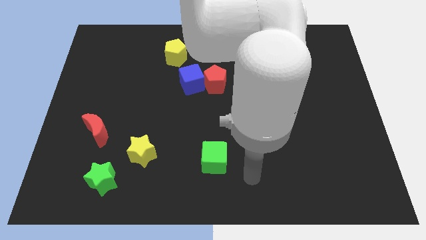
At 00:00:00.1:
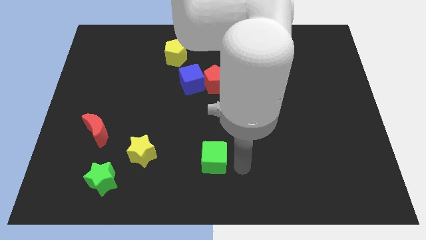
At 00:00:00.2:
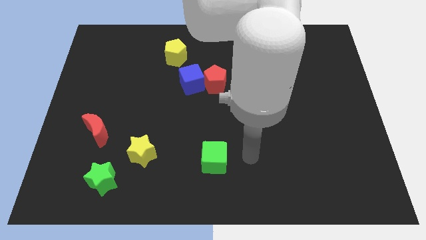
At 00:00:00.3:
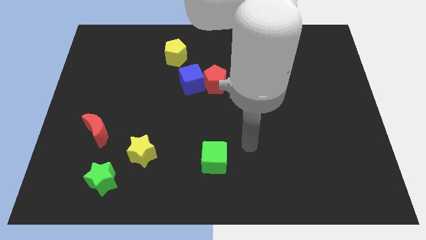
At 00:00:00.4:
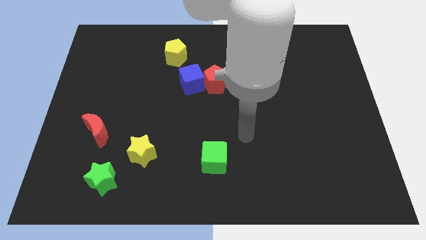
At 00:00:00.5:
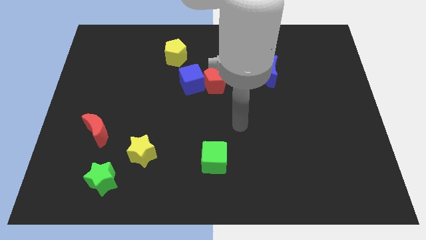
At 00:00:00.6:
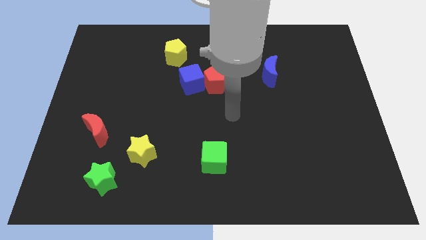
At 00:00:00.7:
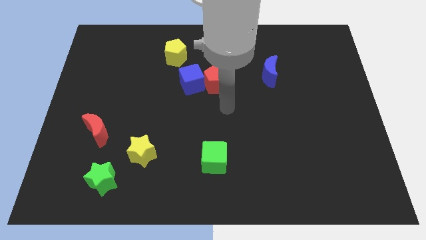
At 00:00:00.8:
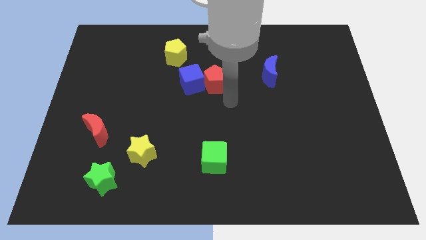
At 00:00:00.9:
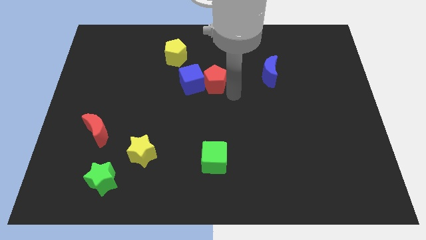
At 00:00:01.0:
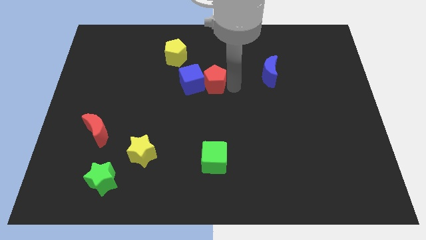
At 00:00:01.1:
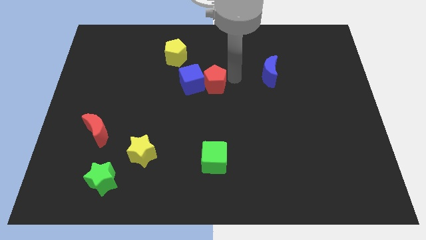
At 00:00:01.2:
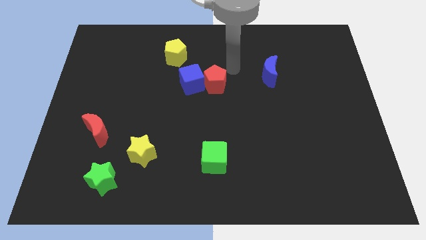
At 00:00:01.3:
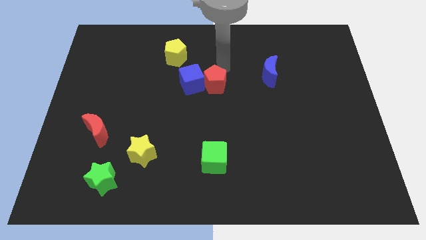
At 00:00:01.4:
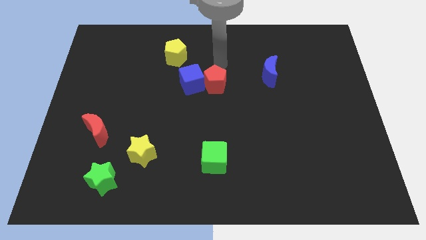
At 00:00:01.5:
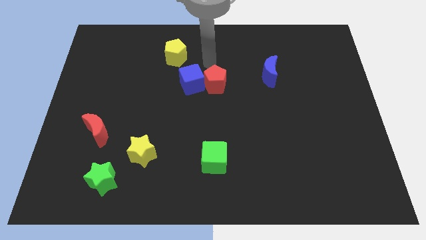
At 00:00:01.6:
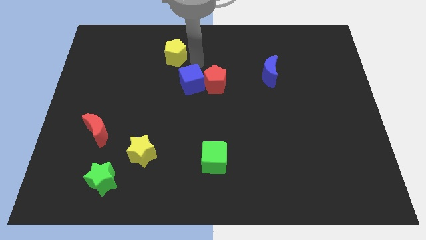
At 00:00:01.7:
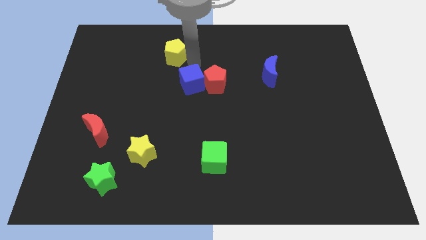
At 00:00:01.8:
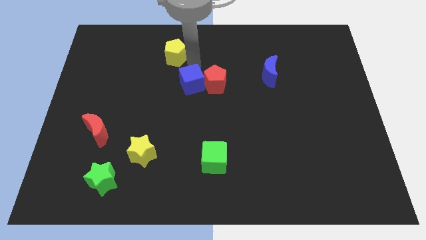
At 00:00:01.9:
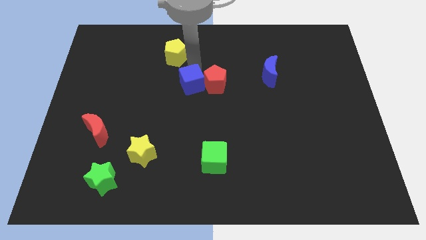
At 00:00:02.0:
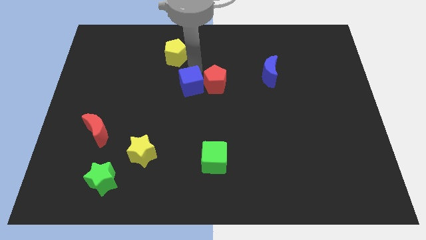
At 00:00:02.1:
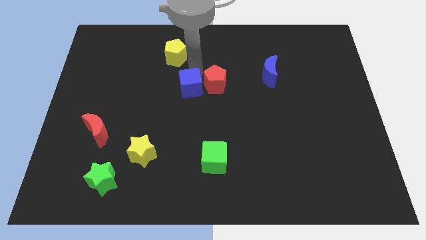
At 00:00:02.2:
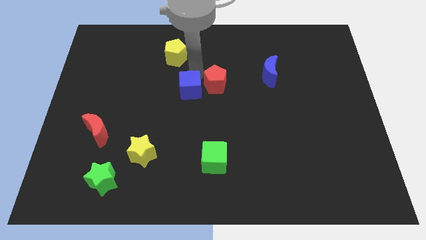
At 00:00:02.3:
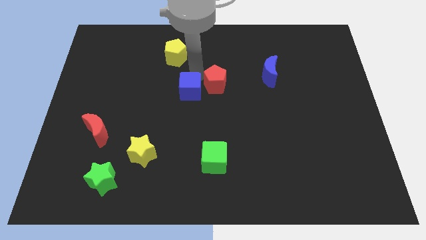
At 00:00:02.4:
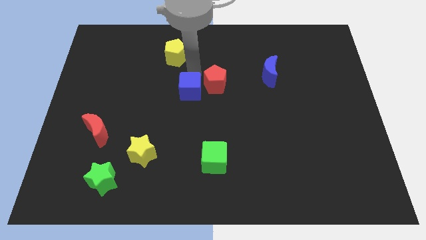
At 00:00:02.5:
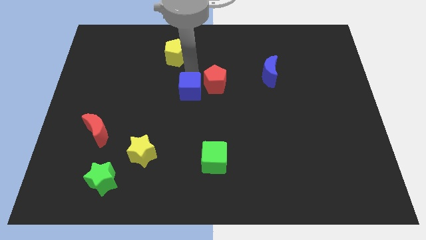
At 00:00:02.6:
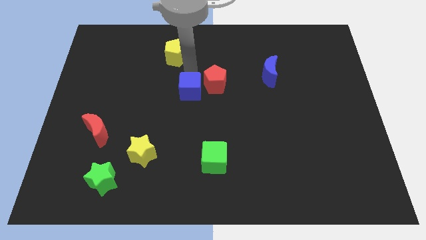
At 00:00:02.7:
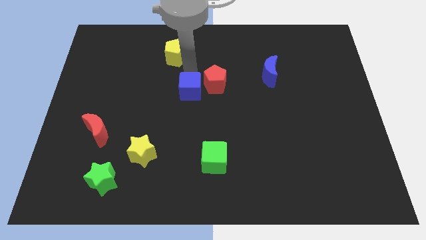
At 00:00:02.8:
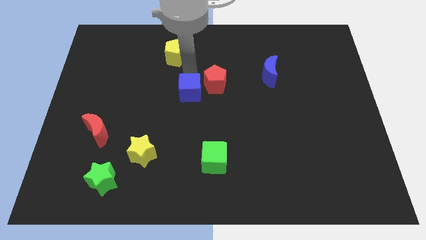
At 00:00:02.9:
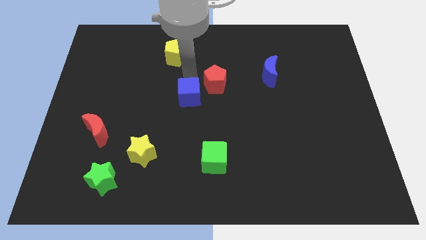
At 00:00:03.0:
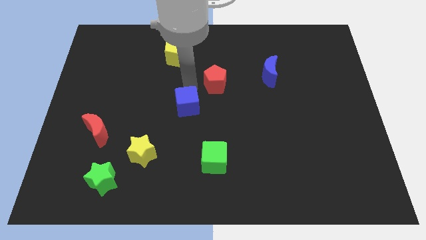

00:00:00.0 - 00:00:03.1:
slide the blue cube a little down

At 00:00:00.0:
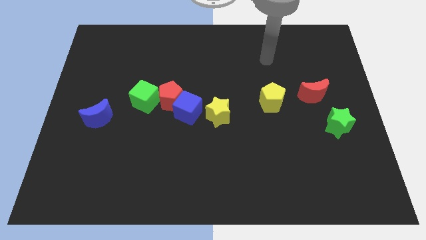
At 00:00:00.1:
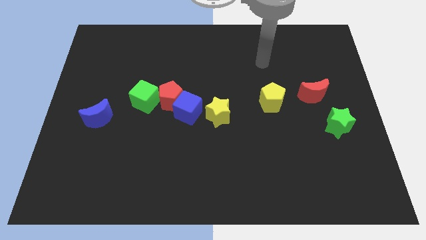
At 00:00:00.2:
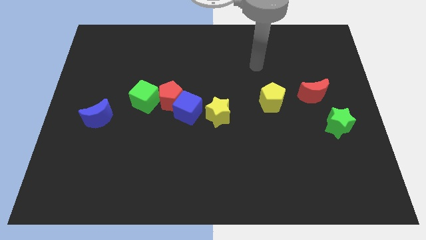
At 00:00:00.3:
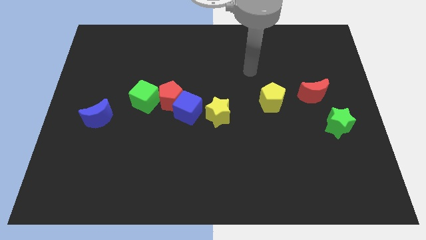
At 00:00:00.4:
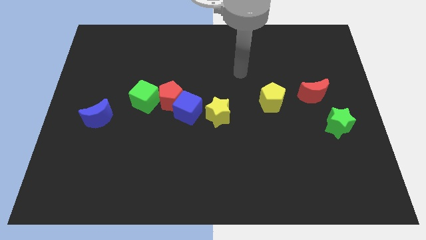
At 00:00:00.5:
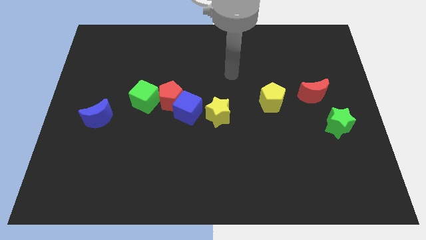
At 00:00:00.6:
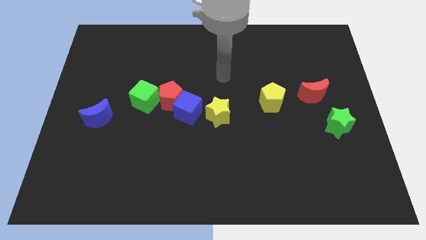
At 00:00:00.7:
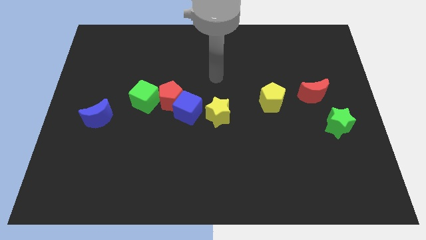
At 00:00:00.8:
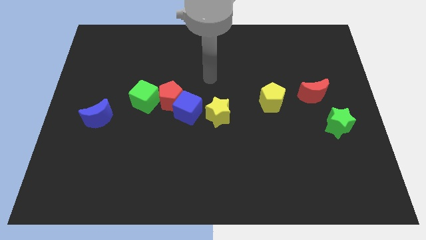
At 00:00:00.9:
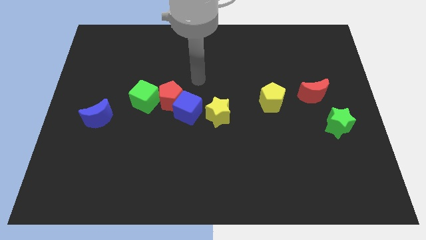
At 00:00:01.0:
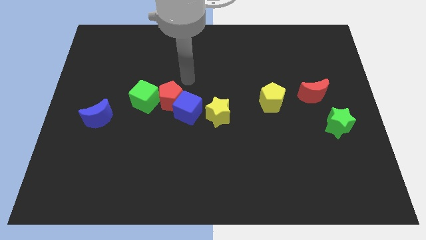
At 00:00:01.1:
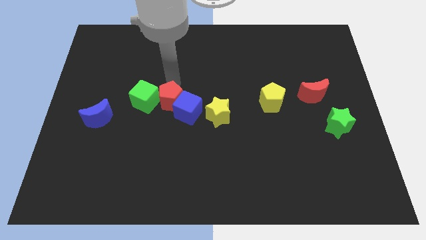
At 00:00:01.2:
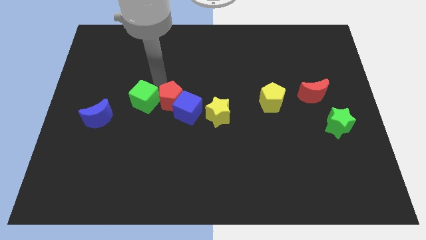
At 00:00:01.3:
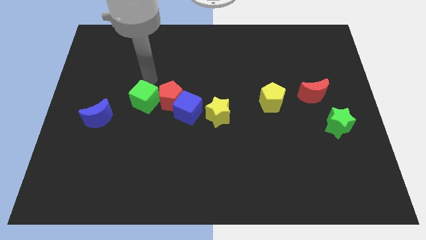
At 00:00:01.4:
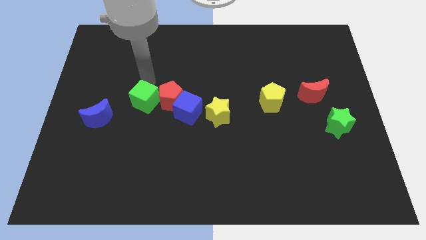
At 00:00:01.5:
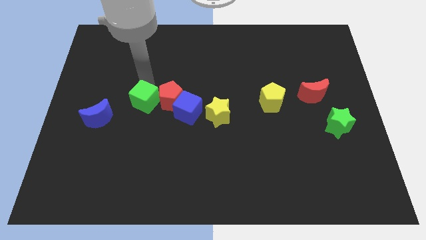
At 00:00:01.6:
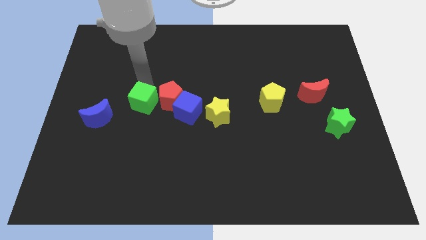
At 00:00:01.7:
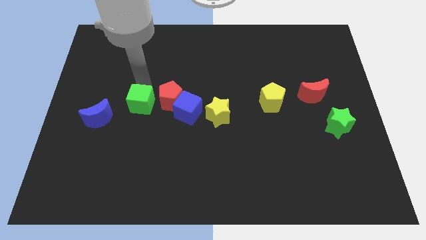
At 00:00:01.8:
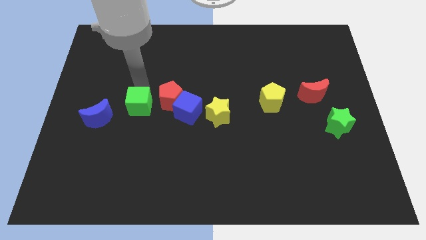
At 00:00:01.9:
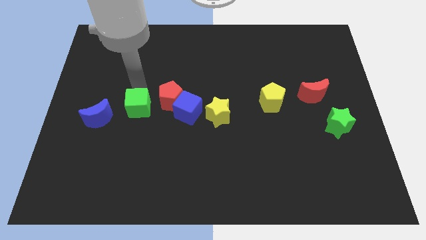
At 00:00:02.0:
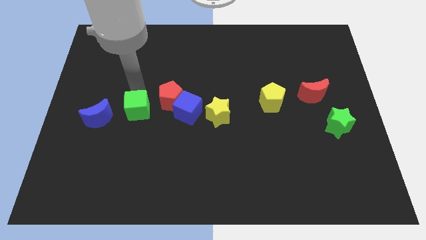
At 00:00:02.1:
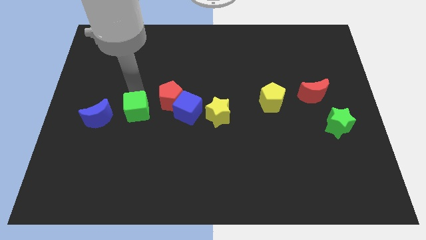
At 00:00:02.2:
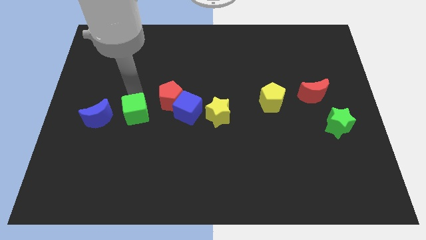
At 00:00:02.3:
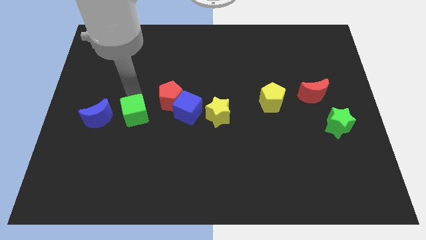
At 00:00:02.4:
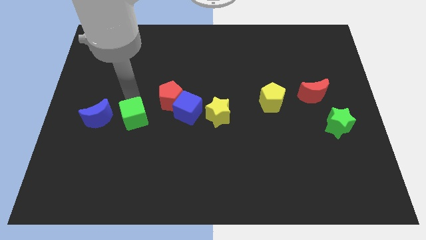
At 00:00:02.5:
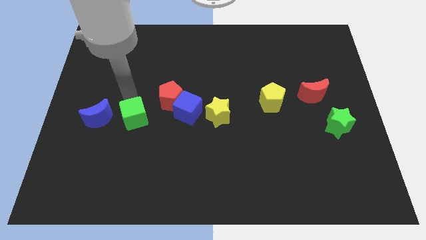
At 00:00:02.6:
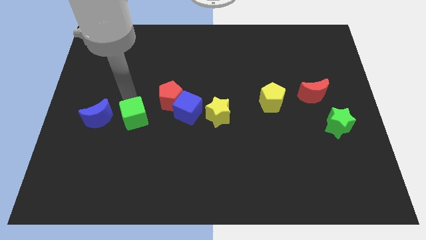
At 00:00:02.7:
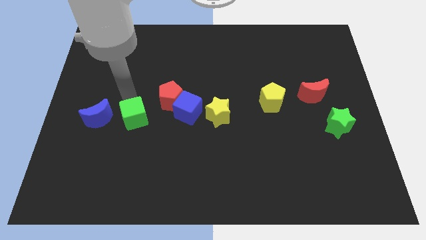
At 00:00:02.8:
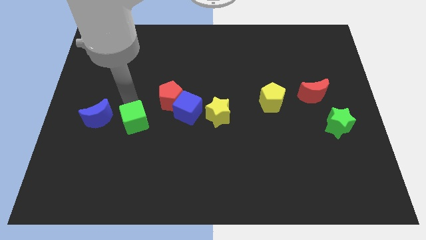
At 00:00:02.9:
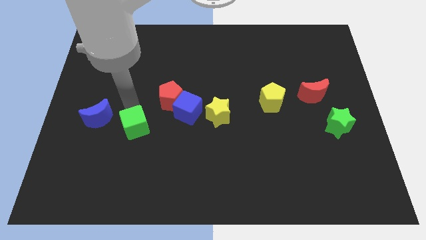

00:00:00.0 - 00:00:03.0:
slightly move the green cube downwards

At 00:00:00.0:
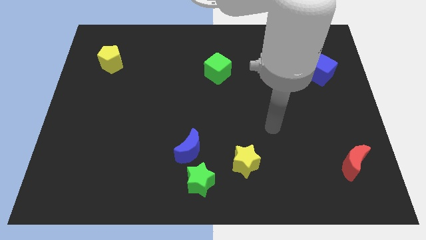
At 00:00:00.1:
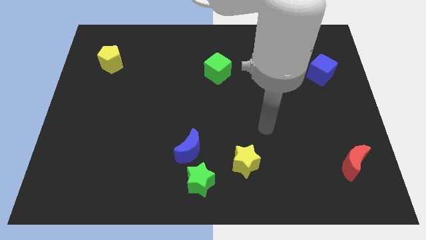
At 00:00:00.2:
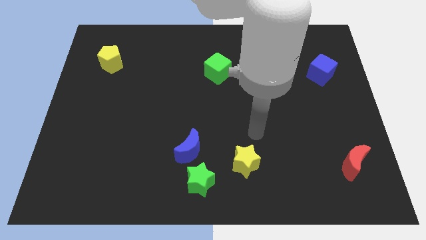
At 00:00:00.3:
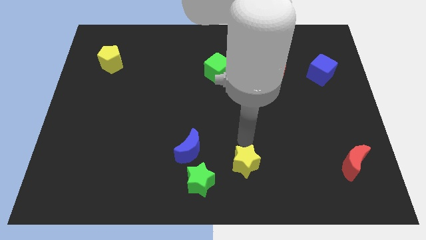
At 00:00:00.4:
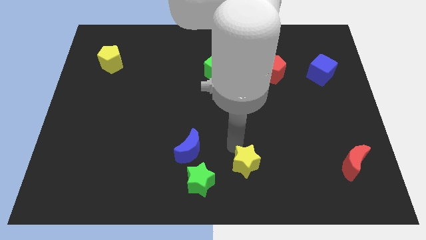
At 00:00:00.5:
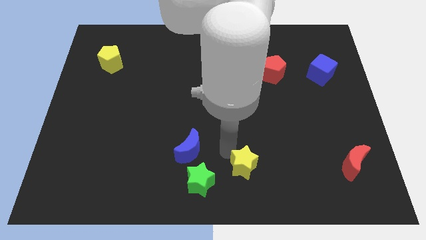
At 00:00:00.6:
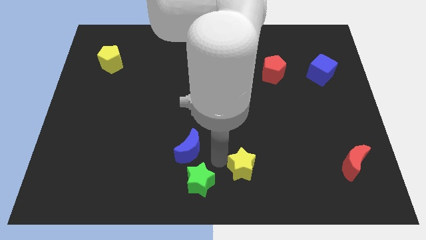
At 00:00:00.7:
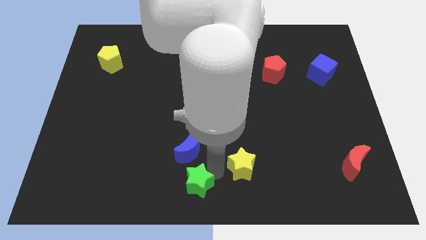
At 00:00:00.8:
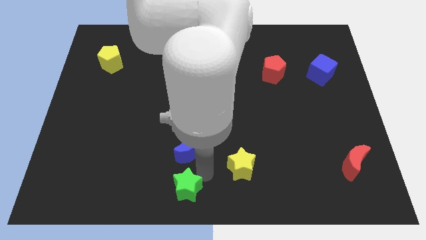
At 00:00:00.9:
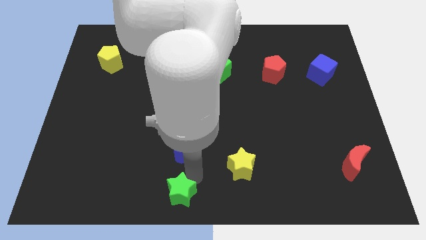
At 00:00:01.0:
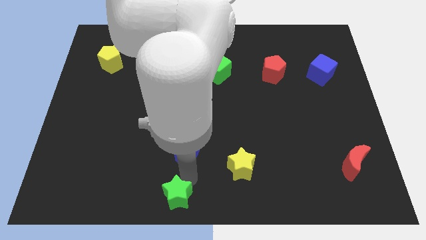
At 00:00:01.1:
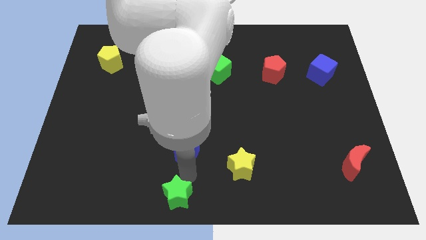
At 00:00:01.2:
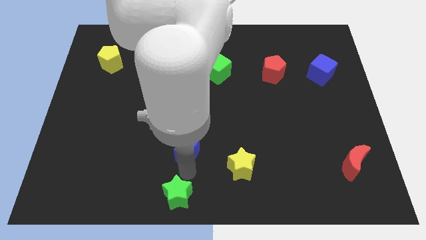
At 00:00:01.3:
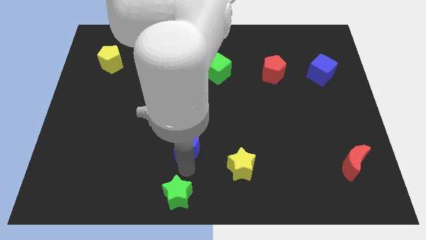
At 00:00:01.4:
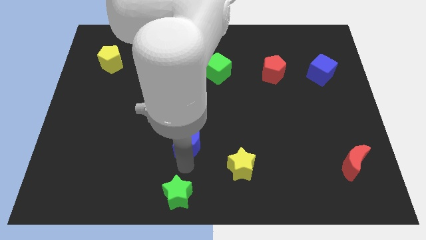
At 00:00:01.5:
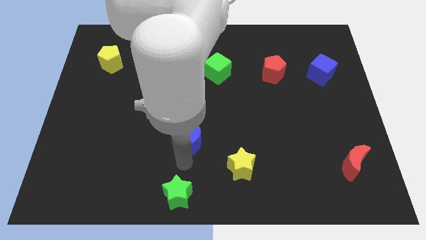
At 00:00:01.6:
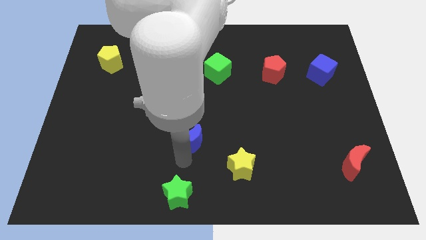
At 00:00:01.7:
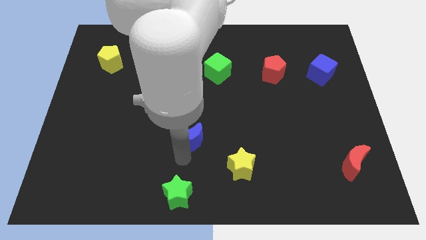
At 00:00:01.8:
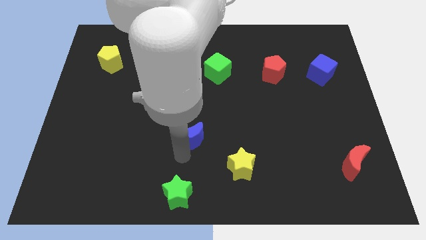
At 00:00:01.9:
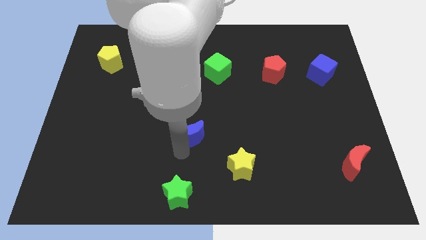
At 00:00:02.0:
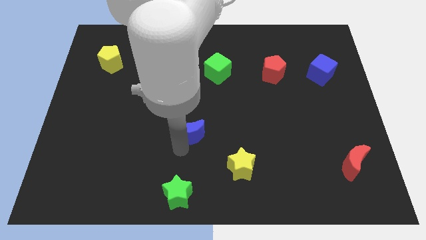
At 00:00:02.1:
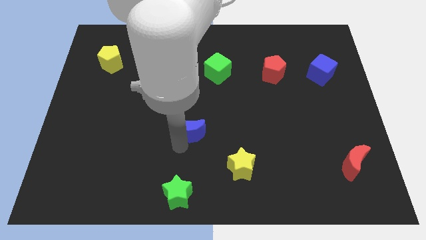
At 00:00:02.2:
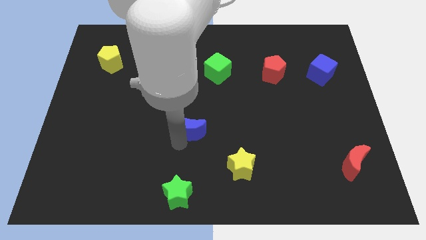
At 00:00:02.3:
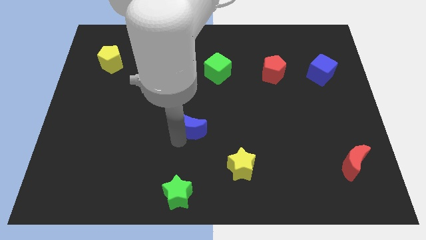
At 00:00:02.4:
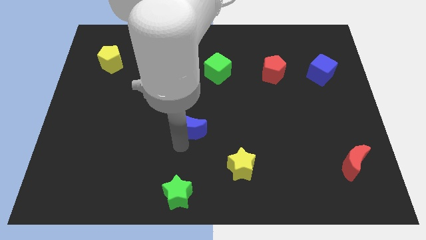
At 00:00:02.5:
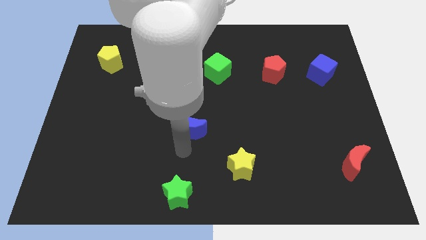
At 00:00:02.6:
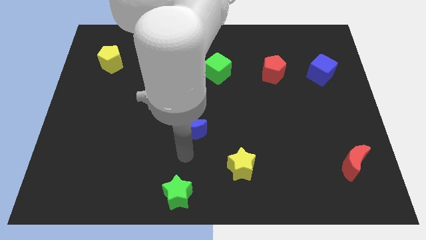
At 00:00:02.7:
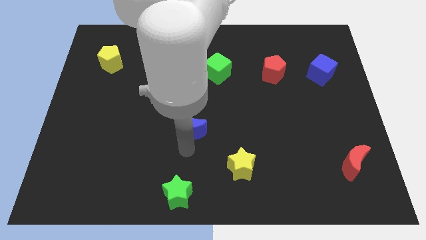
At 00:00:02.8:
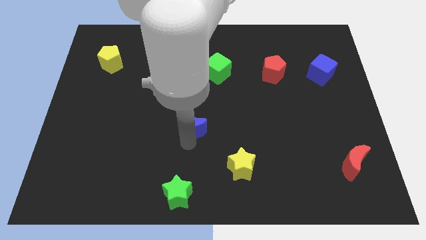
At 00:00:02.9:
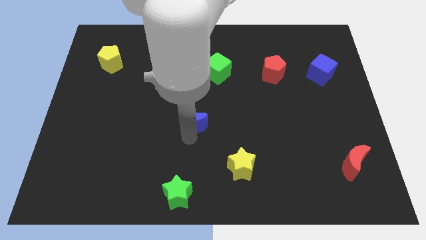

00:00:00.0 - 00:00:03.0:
slightly slide the blue moon up
